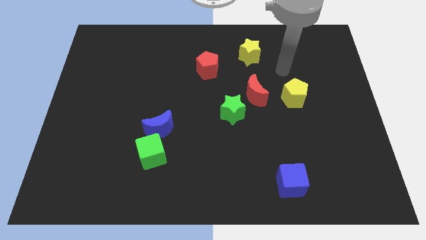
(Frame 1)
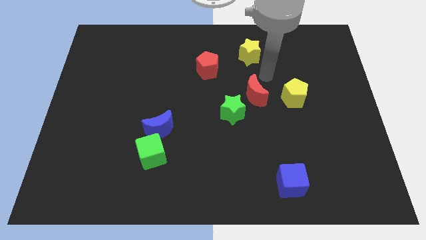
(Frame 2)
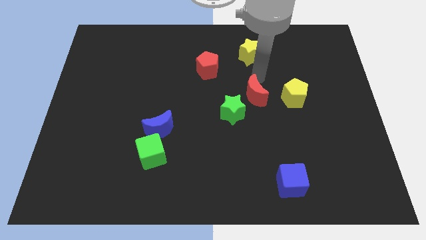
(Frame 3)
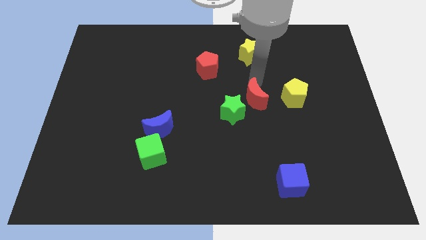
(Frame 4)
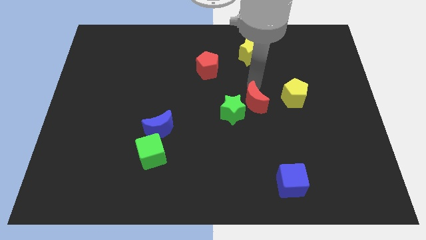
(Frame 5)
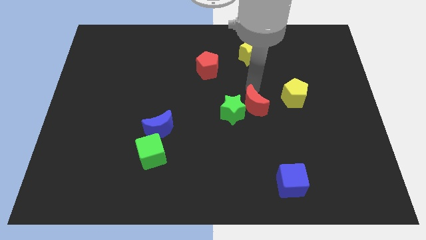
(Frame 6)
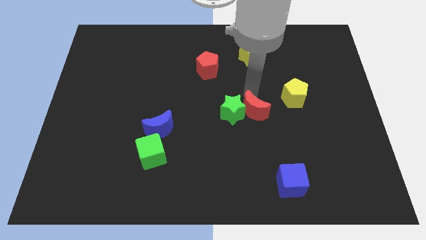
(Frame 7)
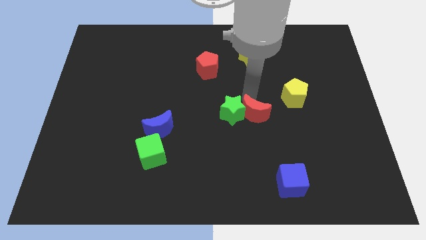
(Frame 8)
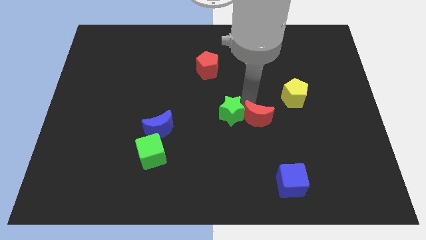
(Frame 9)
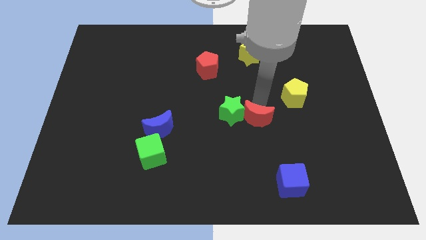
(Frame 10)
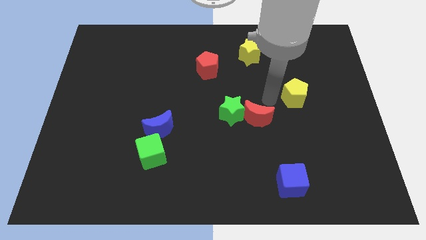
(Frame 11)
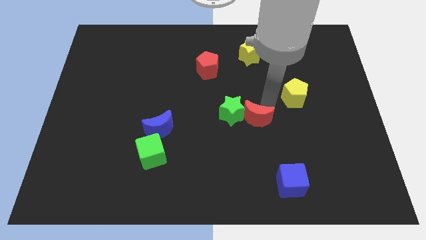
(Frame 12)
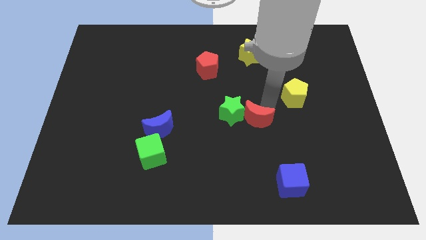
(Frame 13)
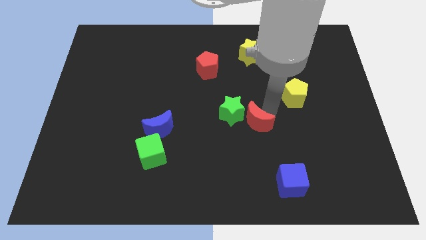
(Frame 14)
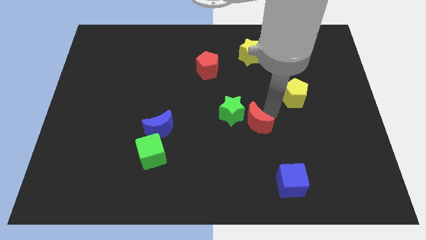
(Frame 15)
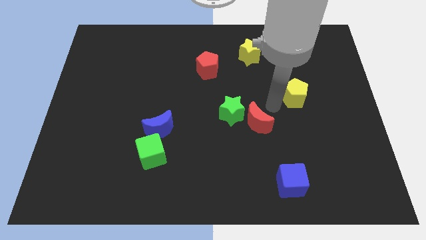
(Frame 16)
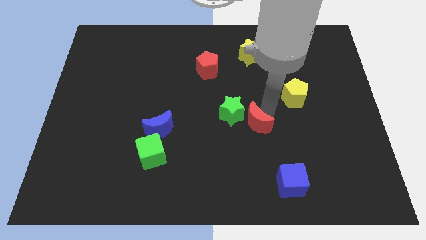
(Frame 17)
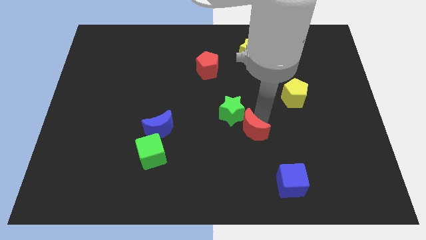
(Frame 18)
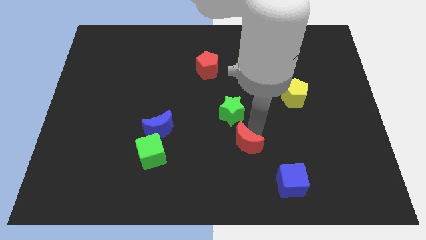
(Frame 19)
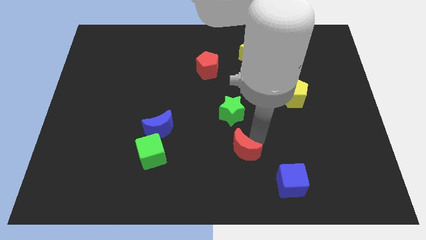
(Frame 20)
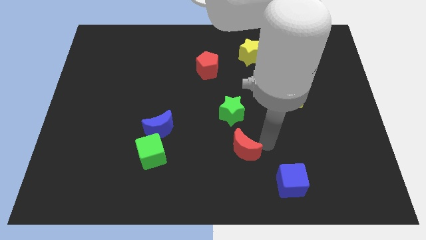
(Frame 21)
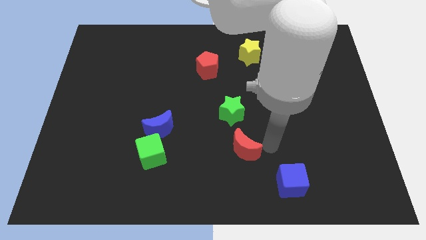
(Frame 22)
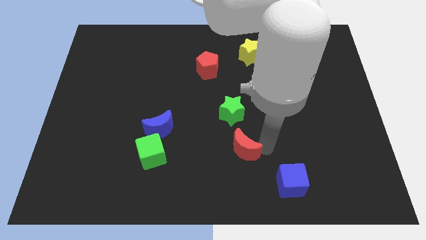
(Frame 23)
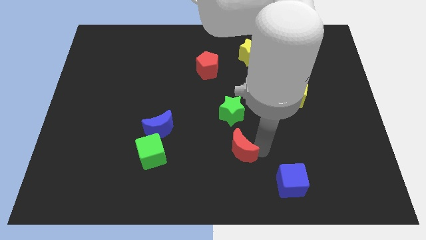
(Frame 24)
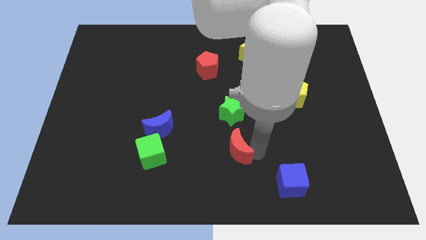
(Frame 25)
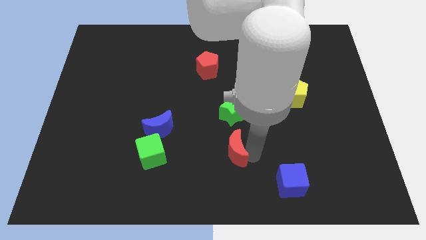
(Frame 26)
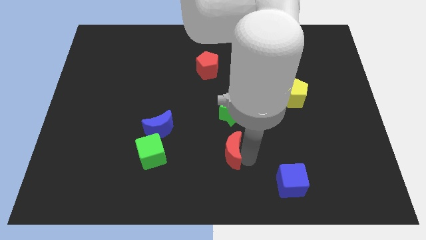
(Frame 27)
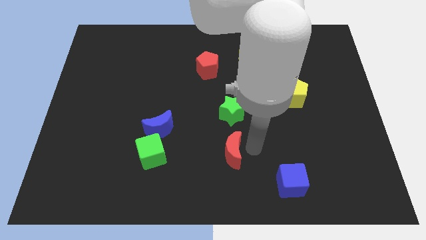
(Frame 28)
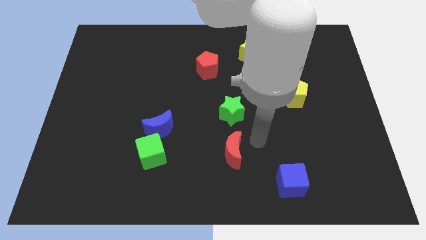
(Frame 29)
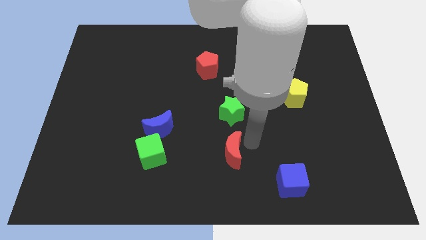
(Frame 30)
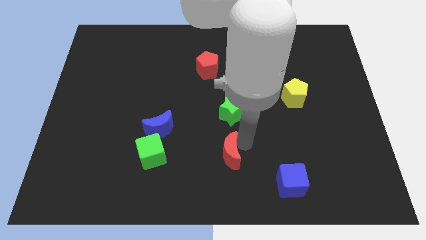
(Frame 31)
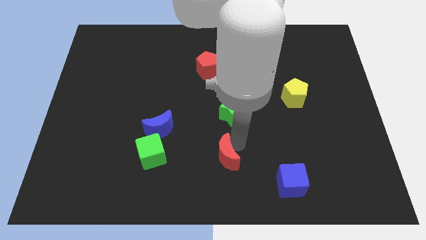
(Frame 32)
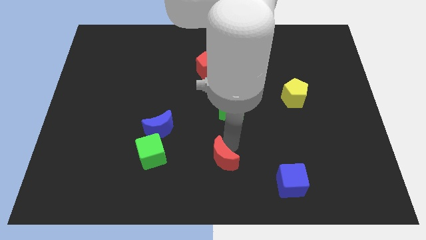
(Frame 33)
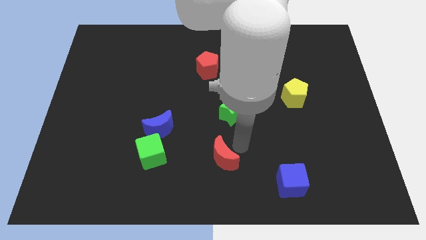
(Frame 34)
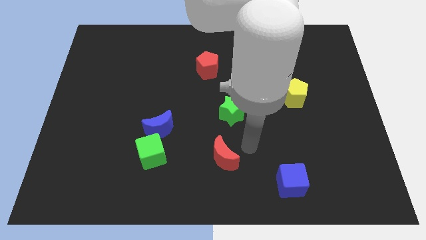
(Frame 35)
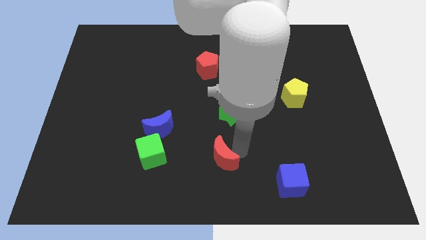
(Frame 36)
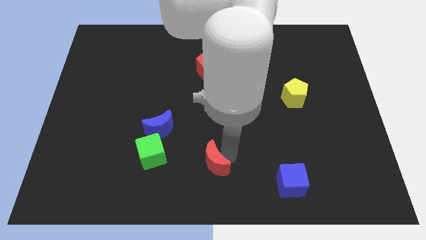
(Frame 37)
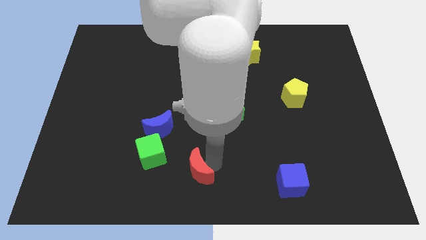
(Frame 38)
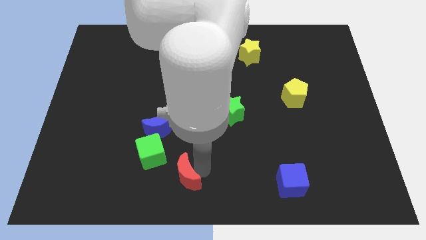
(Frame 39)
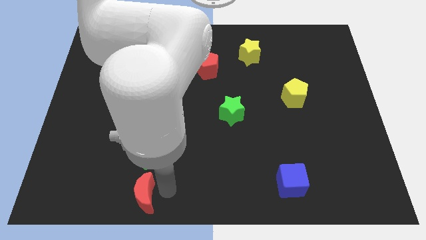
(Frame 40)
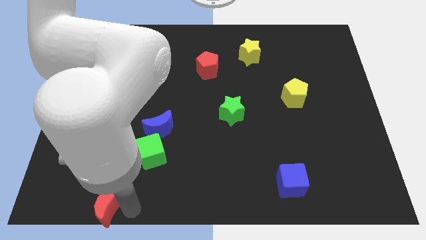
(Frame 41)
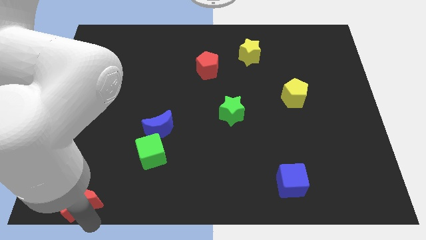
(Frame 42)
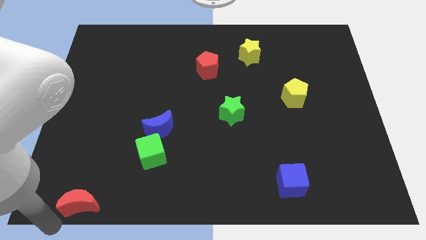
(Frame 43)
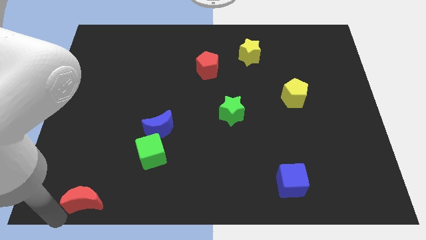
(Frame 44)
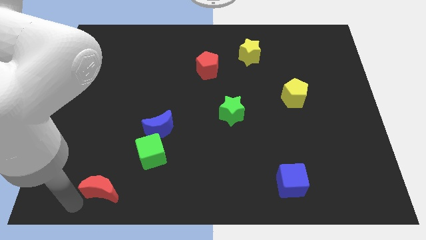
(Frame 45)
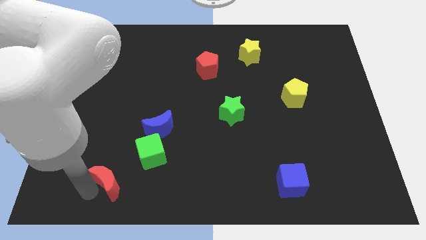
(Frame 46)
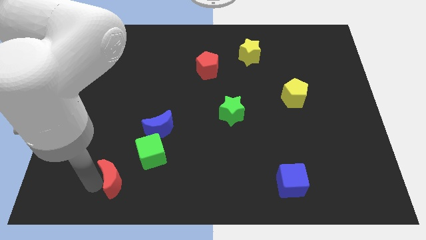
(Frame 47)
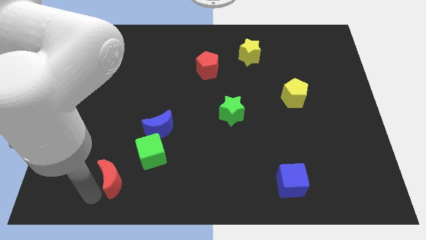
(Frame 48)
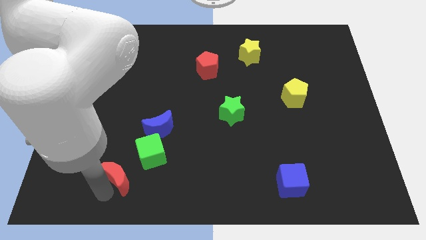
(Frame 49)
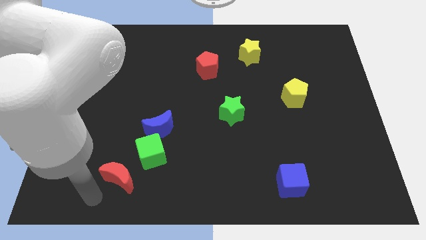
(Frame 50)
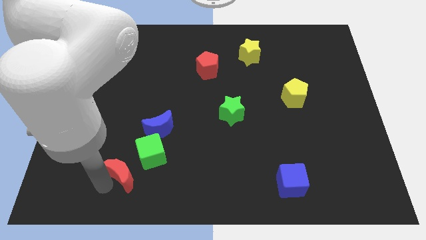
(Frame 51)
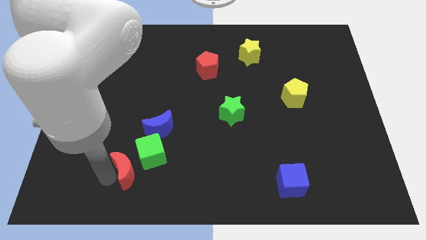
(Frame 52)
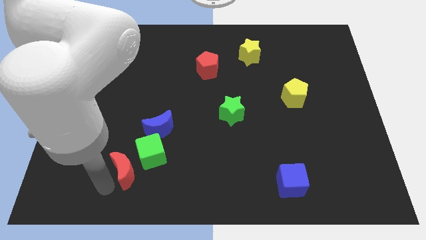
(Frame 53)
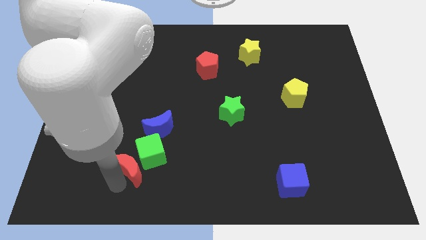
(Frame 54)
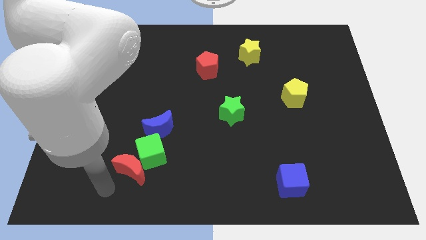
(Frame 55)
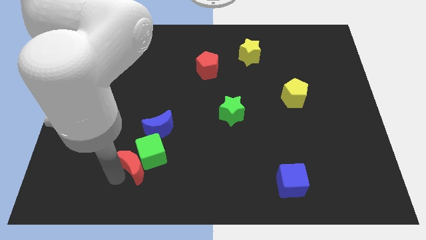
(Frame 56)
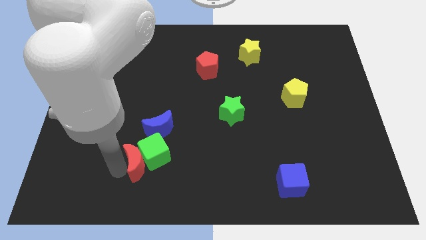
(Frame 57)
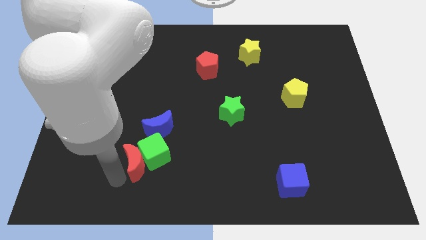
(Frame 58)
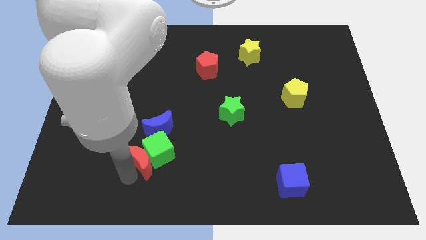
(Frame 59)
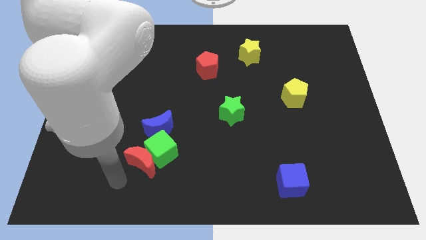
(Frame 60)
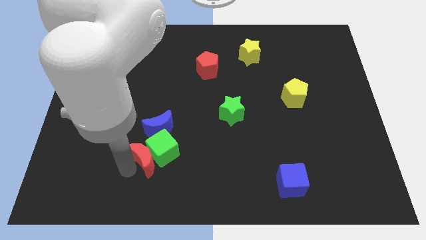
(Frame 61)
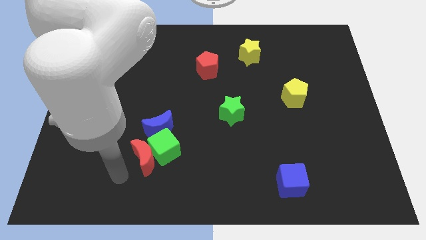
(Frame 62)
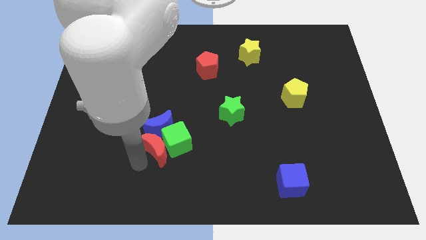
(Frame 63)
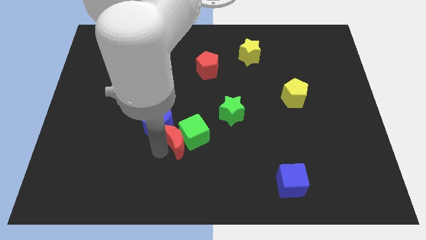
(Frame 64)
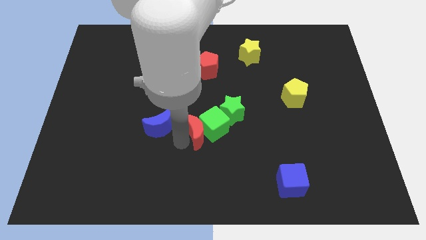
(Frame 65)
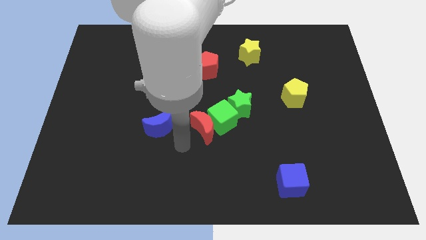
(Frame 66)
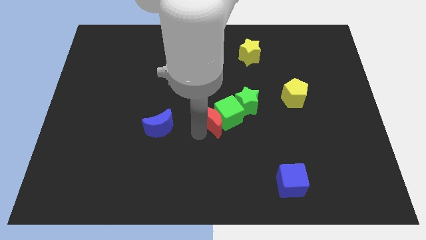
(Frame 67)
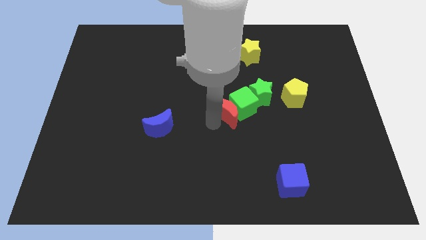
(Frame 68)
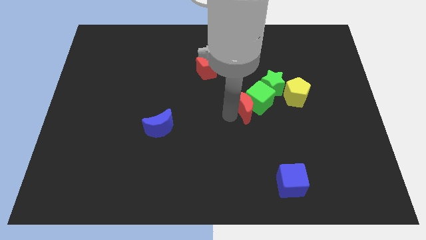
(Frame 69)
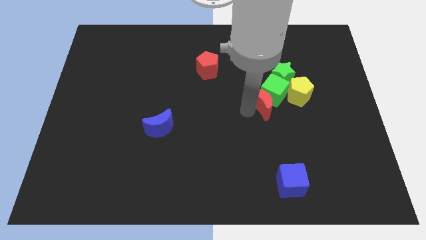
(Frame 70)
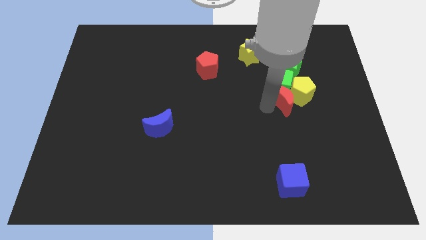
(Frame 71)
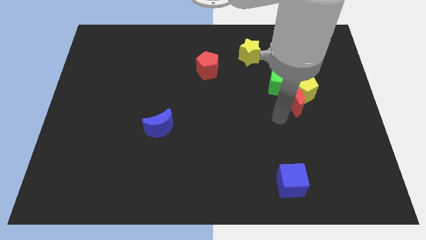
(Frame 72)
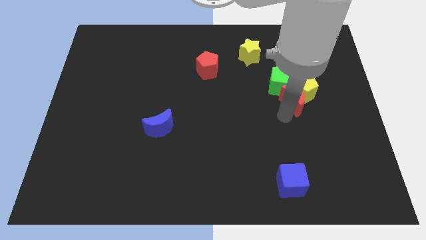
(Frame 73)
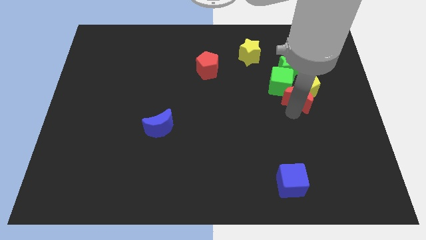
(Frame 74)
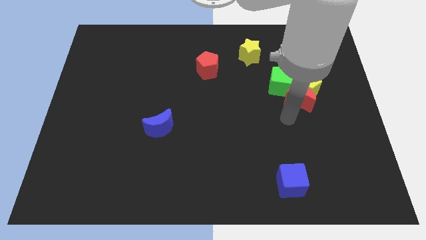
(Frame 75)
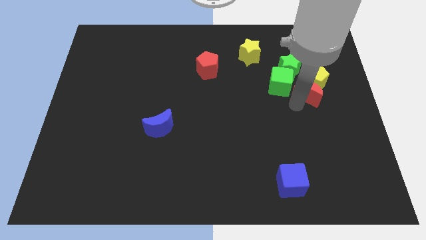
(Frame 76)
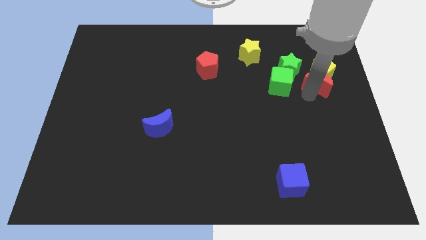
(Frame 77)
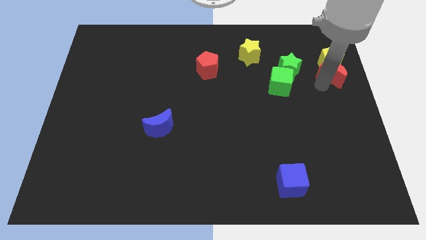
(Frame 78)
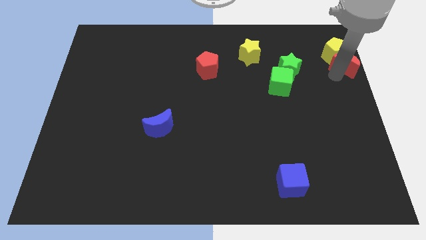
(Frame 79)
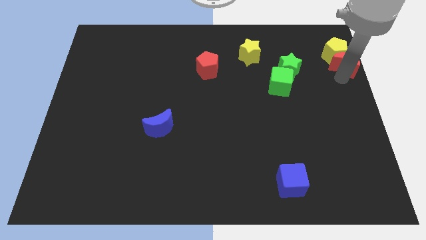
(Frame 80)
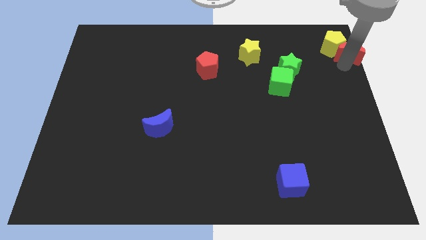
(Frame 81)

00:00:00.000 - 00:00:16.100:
move the red moon to the top right

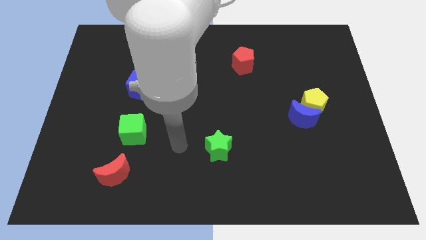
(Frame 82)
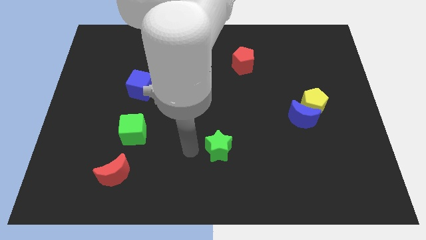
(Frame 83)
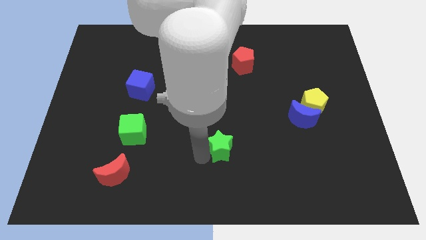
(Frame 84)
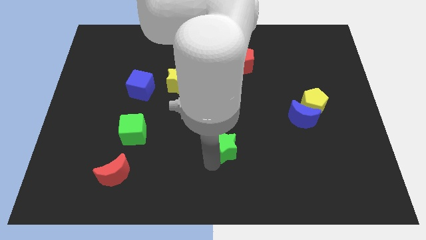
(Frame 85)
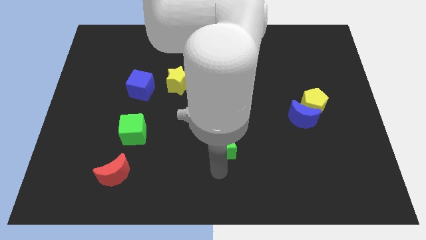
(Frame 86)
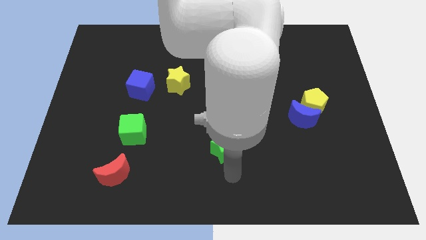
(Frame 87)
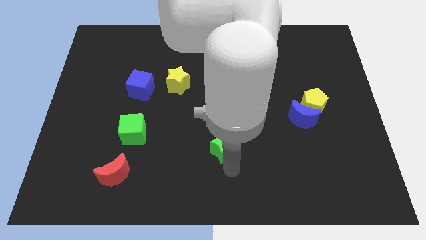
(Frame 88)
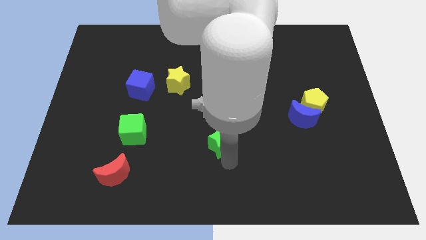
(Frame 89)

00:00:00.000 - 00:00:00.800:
push the green star to the middle of the board
